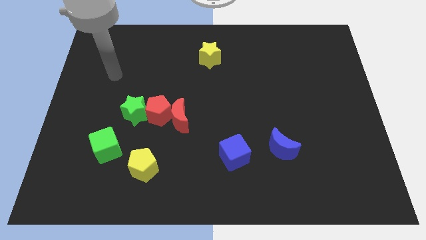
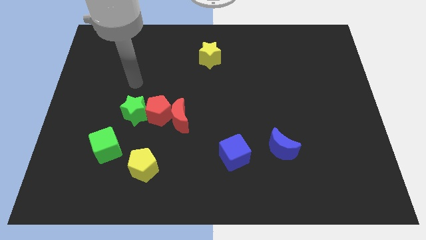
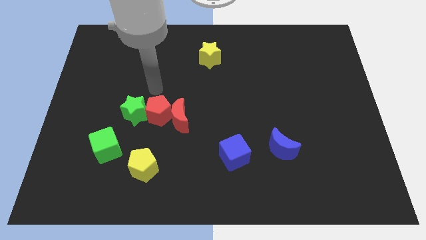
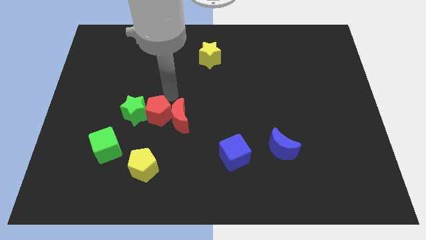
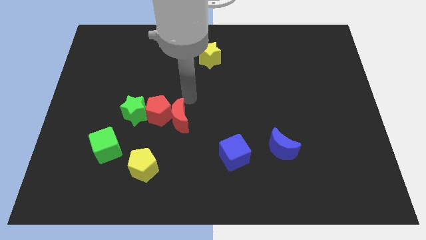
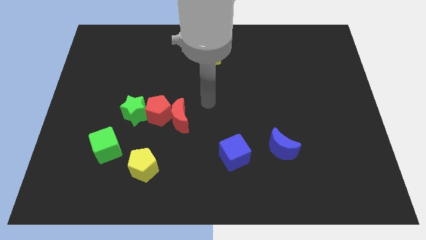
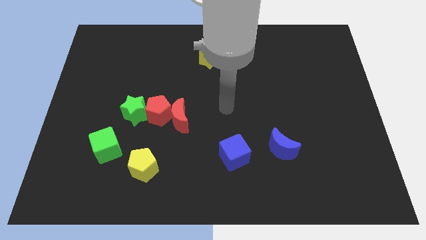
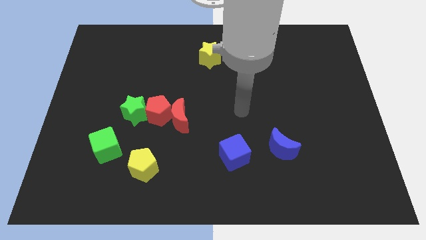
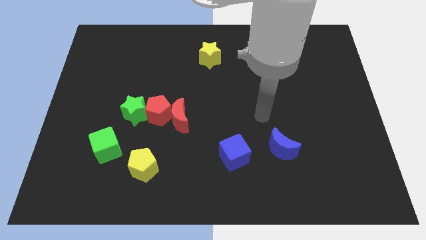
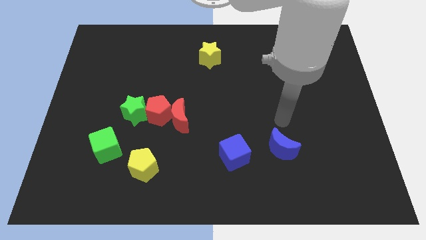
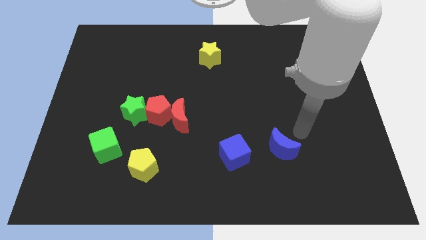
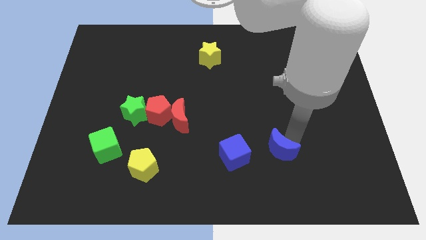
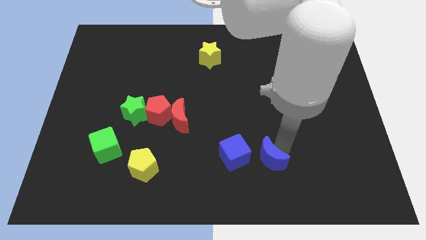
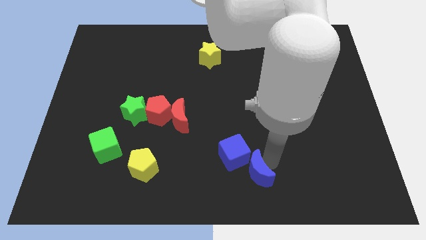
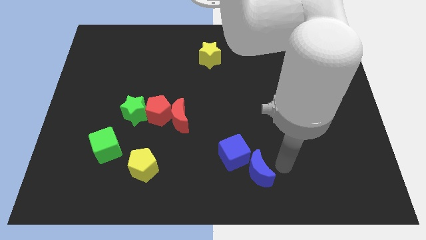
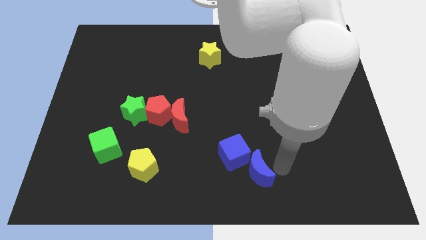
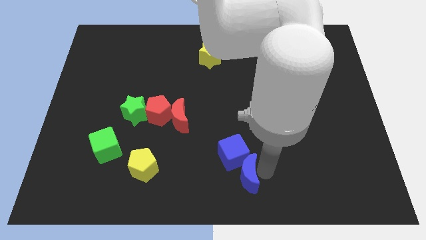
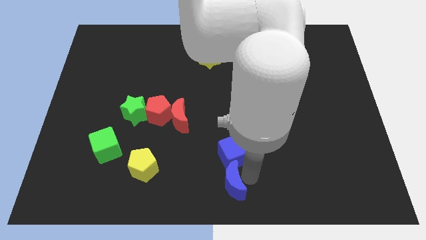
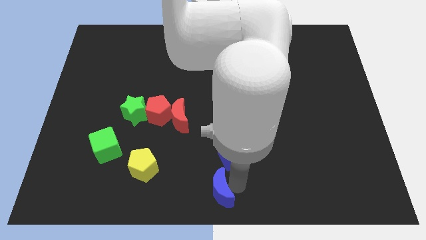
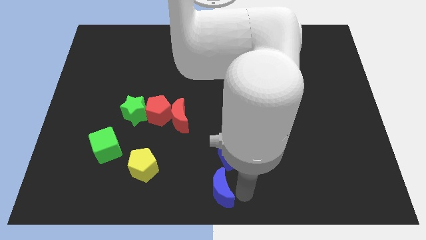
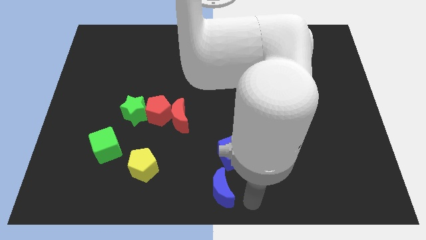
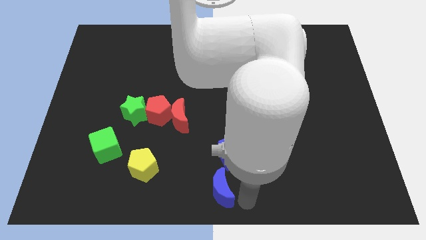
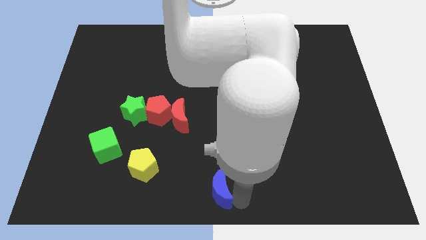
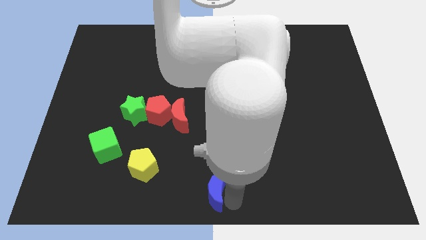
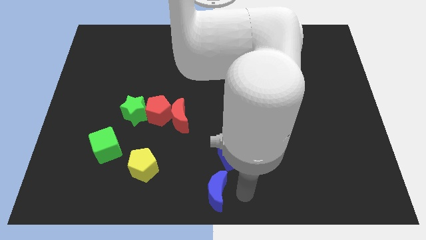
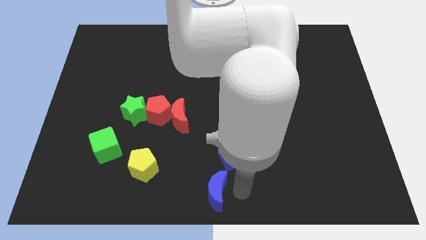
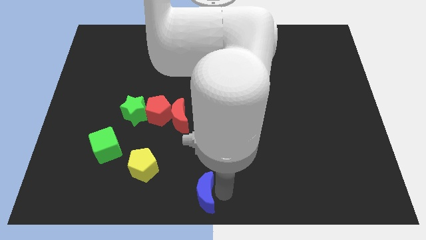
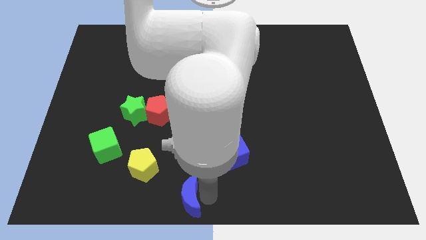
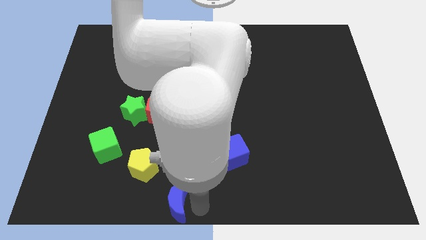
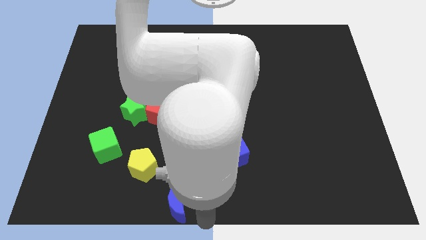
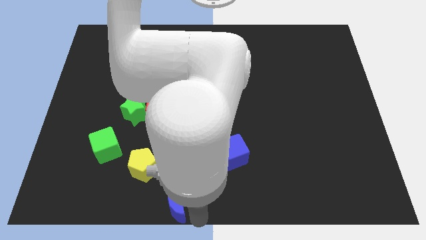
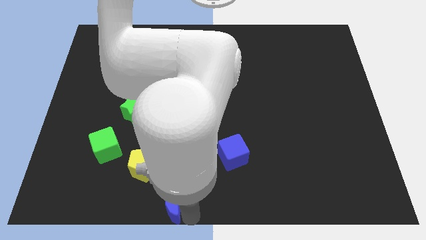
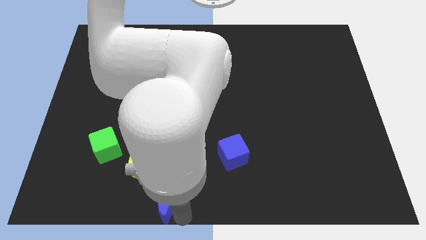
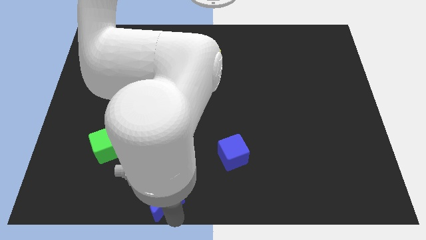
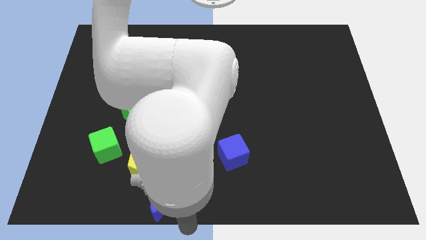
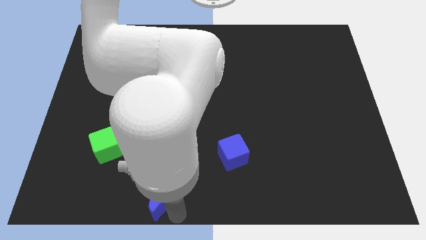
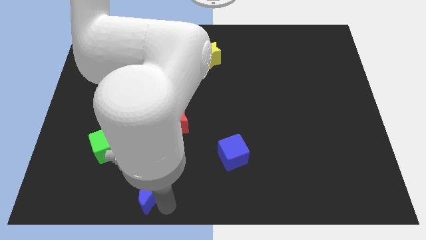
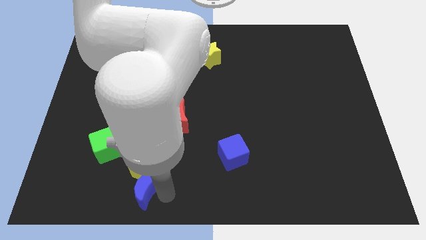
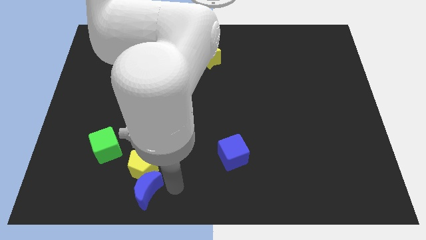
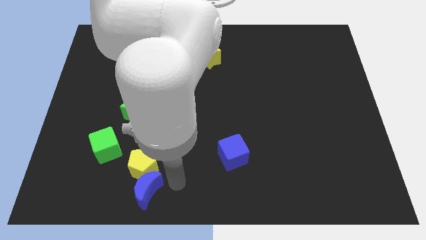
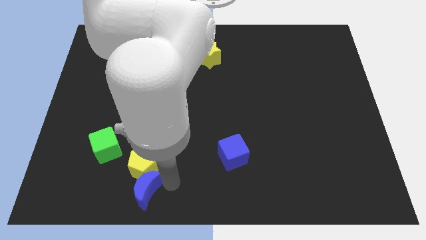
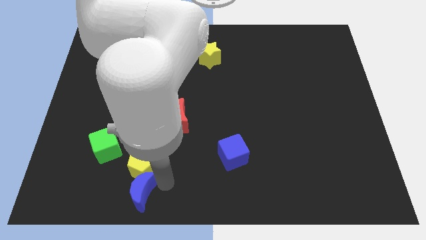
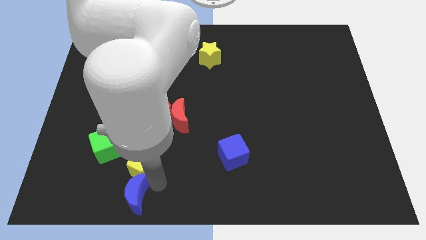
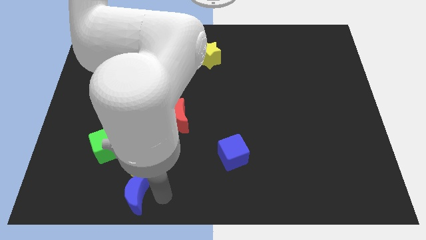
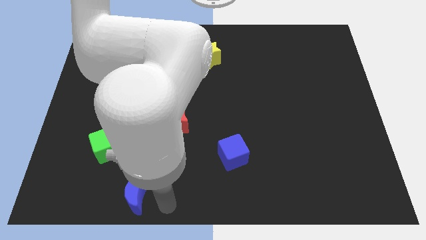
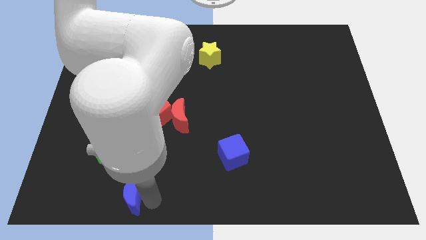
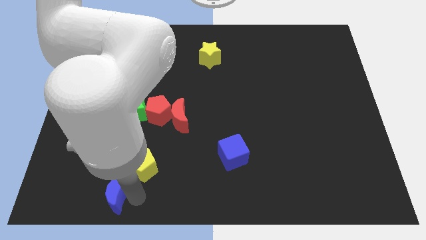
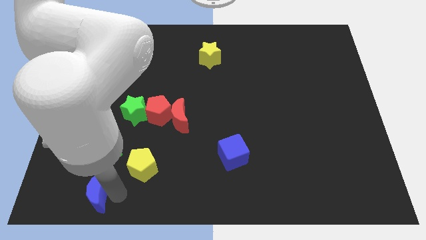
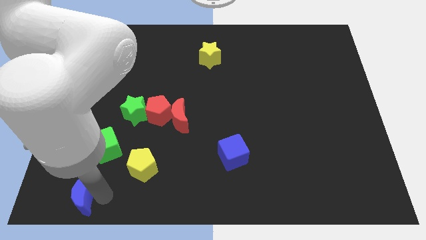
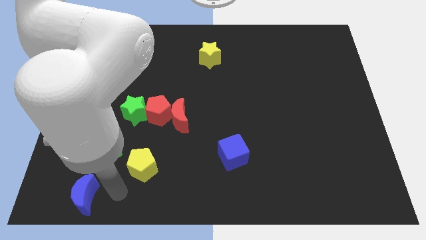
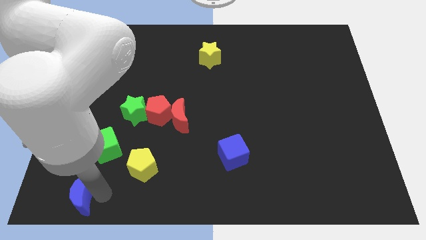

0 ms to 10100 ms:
push the blue moon to the bottom left of the board

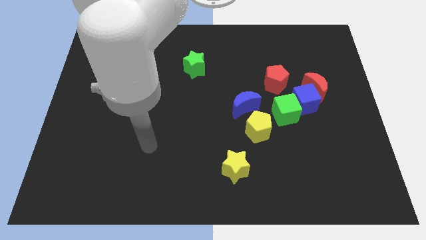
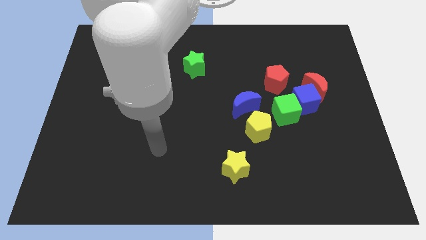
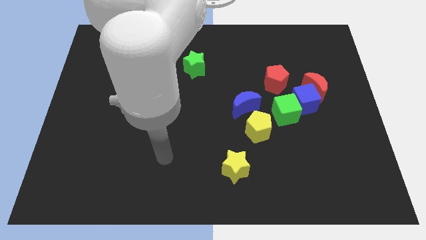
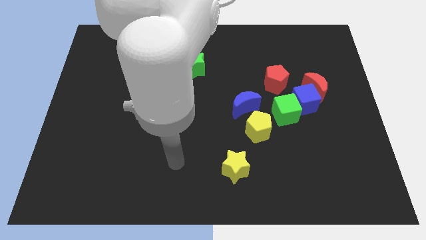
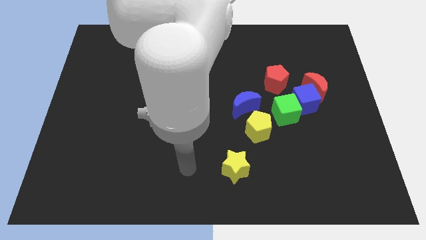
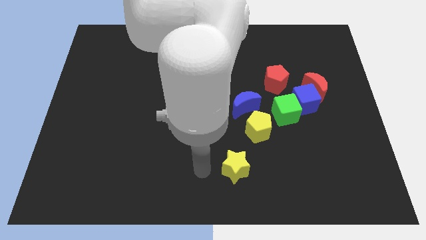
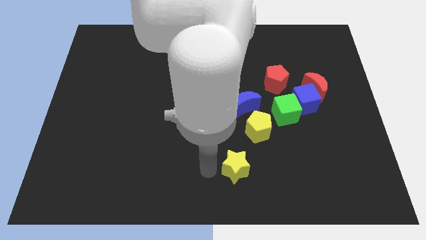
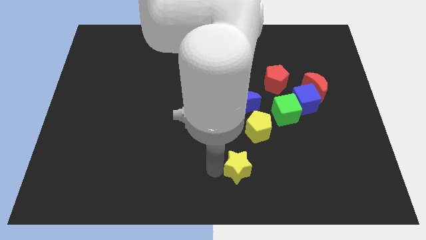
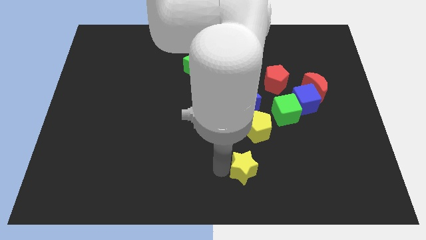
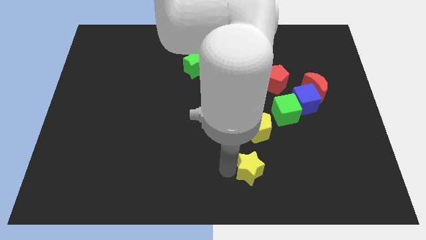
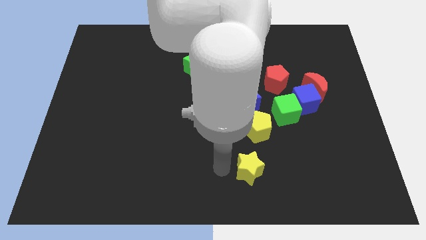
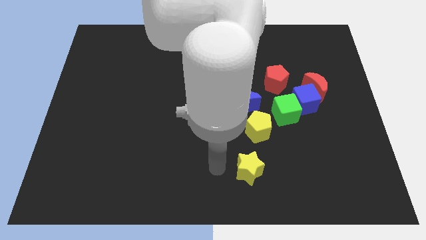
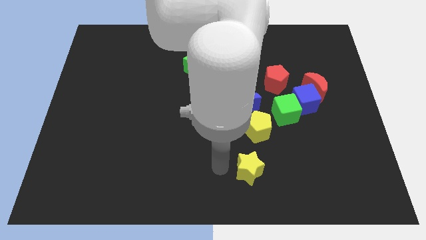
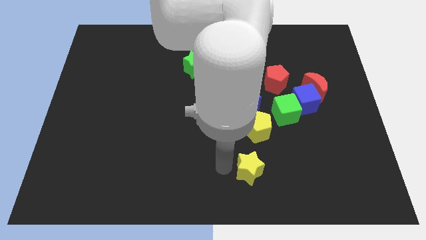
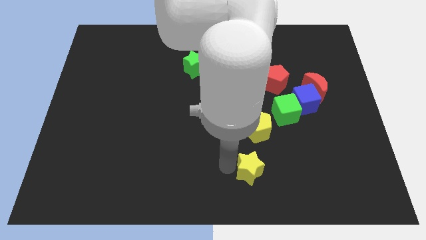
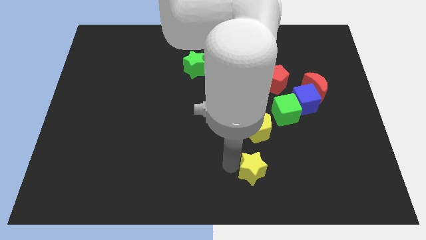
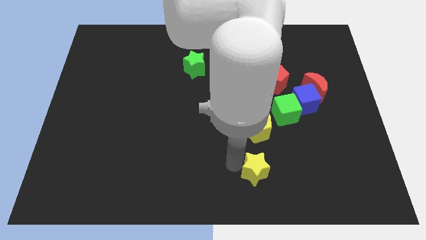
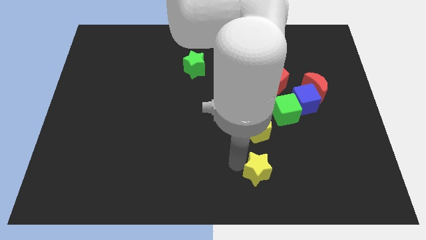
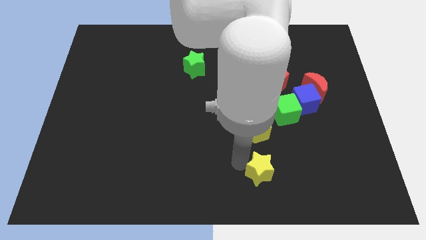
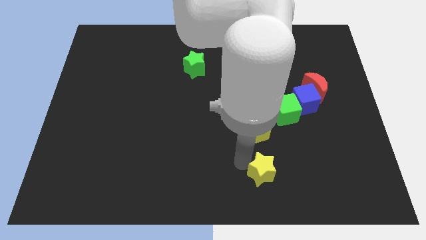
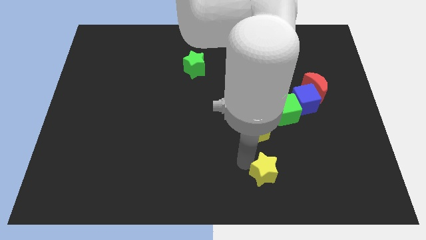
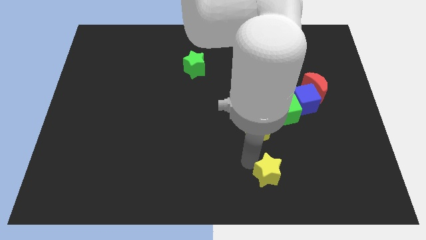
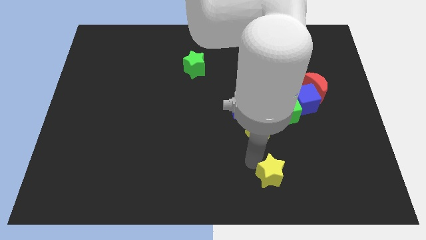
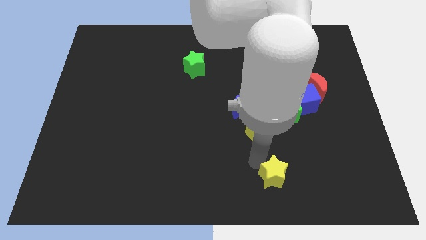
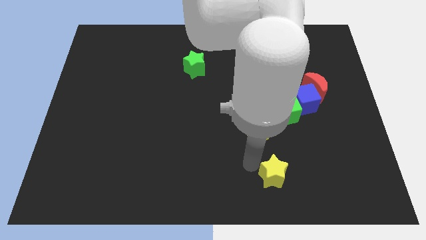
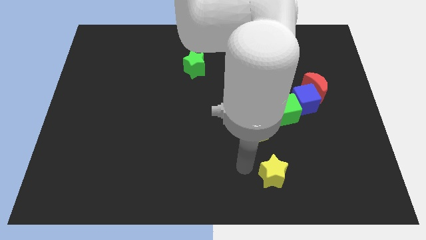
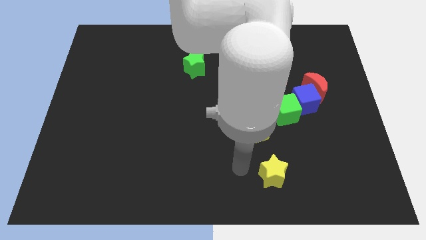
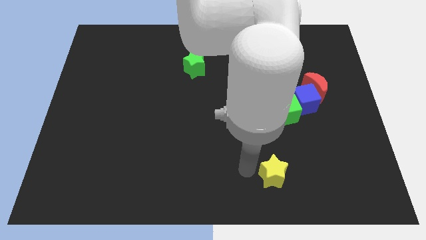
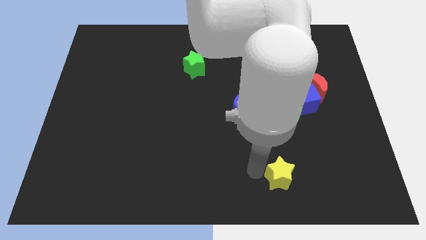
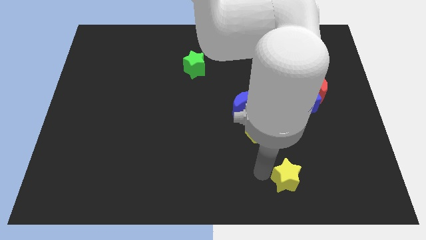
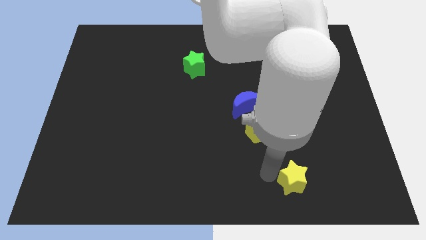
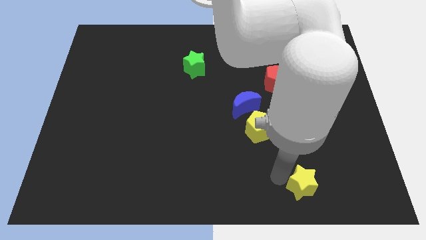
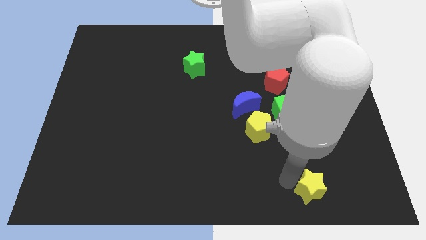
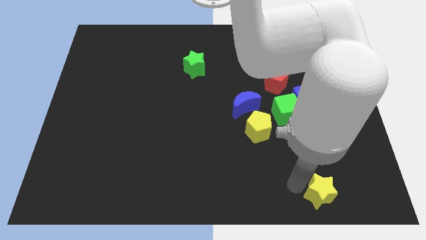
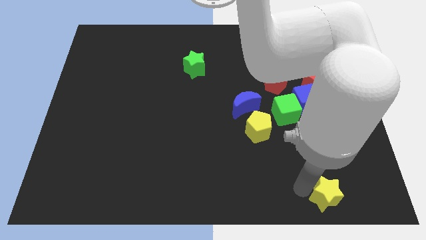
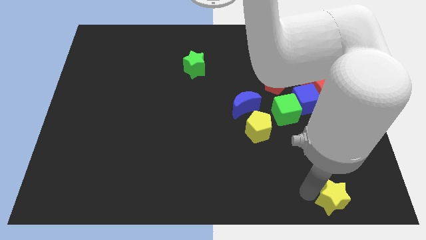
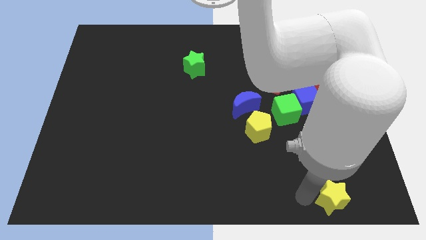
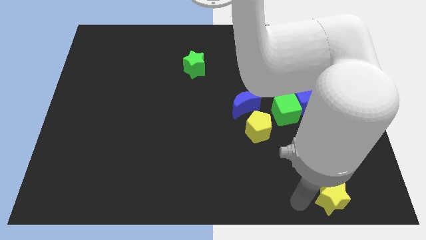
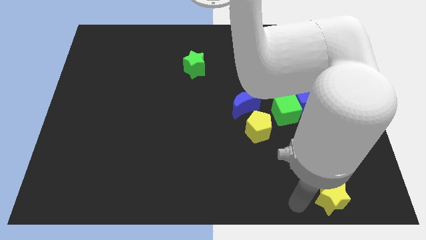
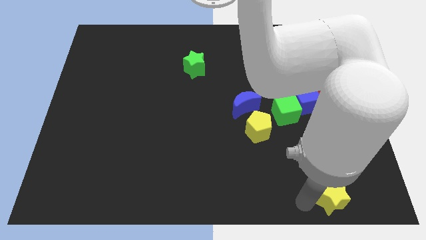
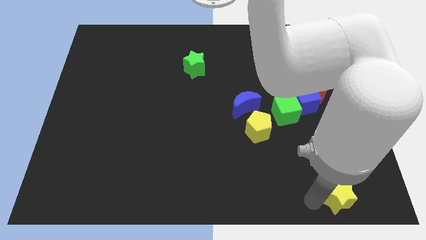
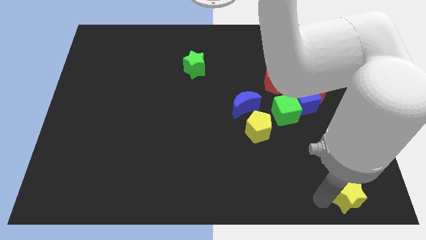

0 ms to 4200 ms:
put the yellow star to the lower right corner
